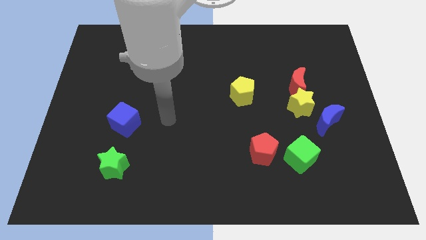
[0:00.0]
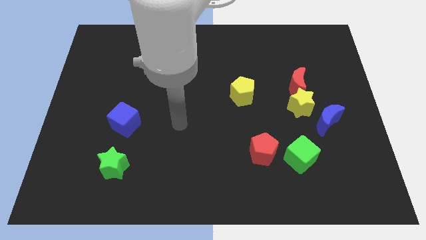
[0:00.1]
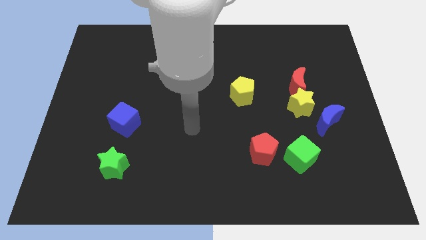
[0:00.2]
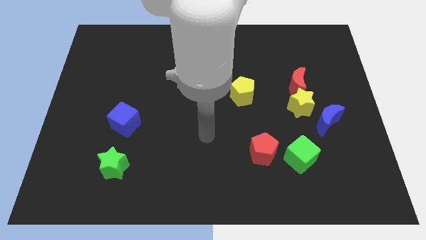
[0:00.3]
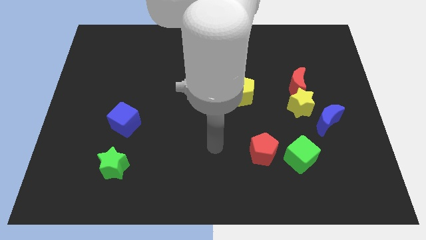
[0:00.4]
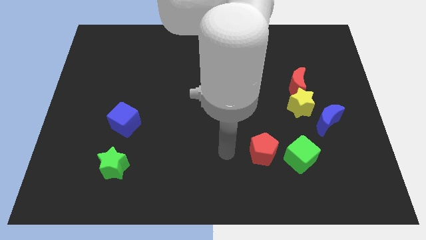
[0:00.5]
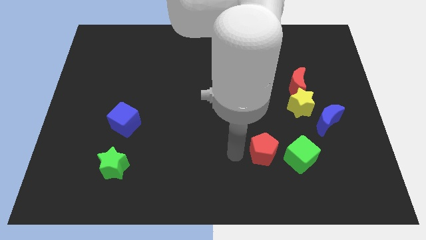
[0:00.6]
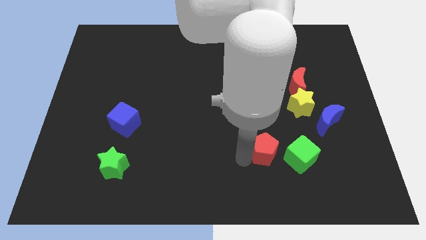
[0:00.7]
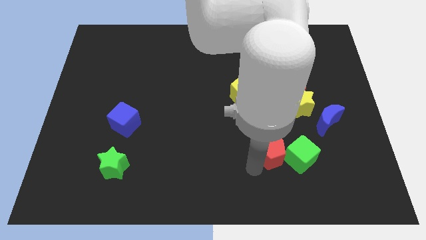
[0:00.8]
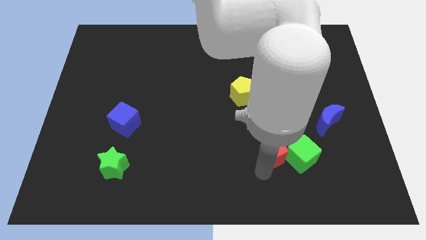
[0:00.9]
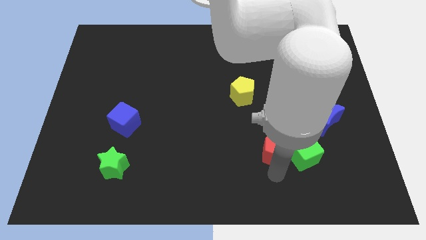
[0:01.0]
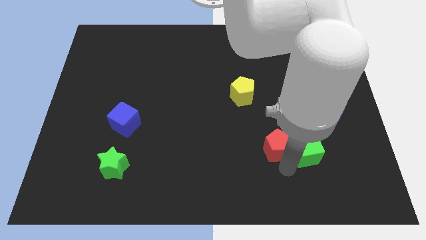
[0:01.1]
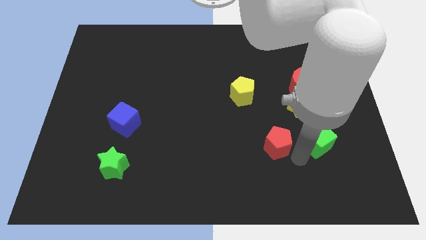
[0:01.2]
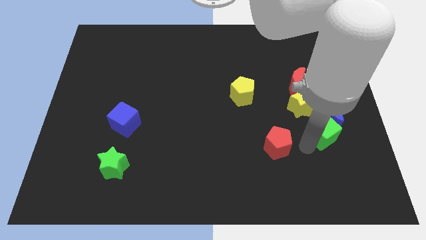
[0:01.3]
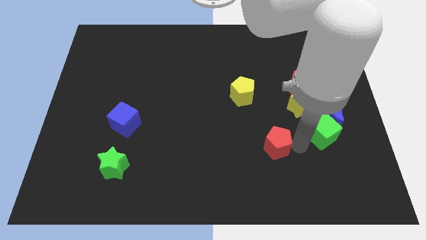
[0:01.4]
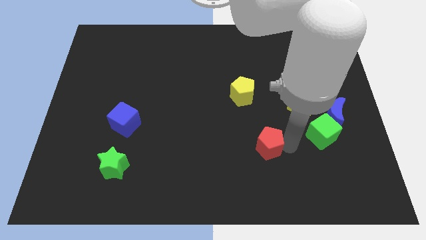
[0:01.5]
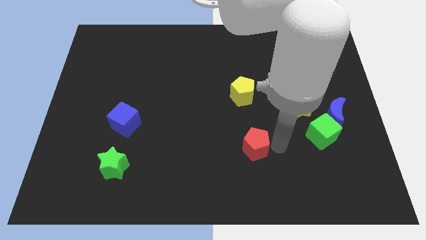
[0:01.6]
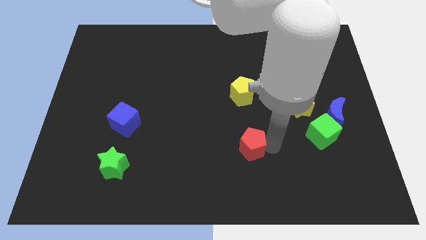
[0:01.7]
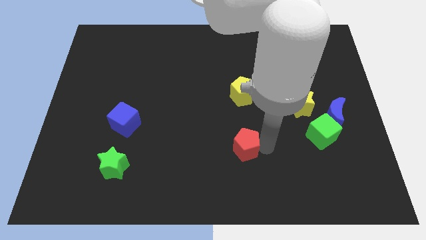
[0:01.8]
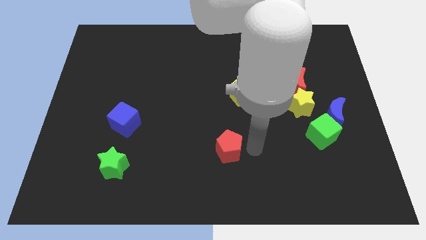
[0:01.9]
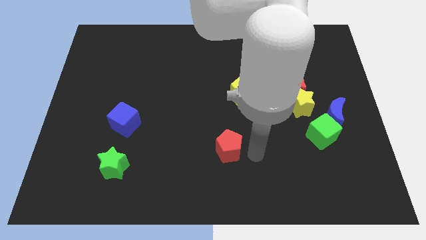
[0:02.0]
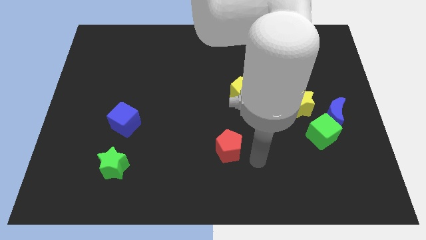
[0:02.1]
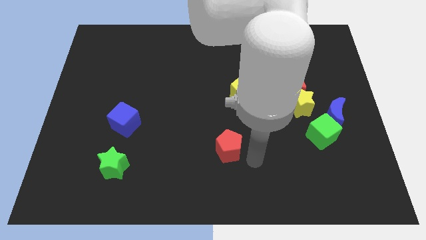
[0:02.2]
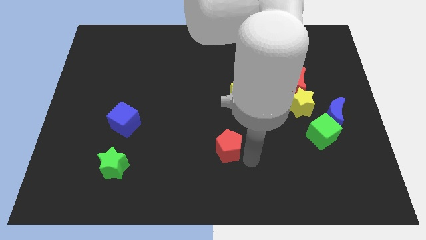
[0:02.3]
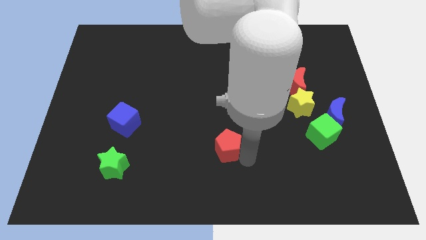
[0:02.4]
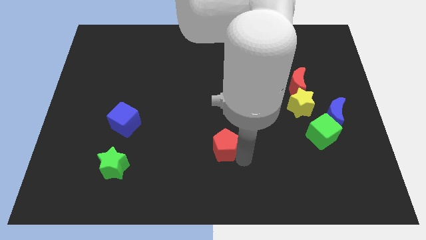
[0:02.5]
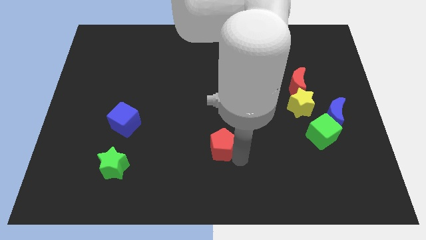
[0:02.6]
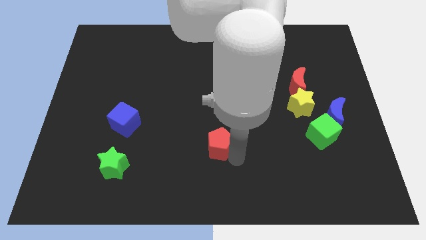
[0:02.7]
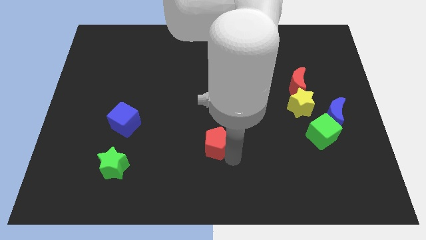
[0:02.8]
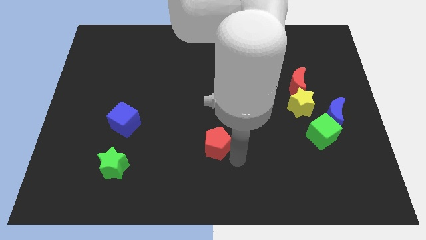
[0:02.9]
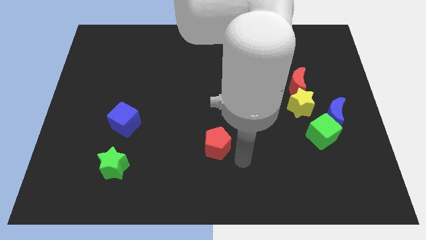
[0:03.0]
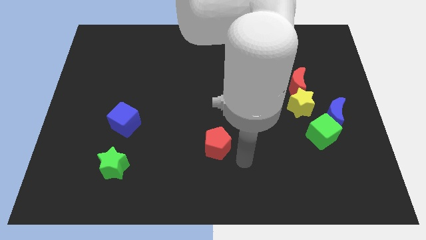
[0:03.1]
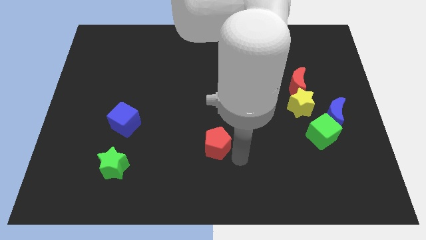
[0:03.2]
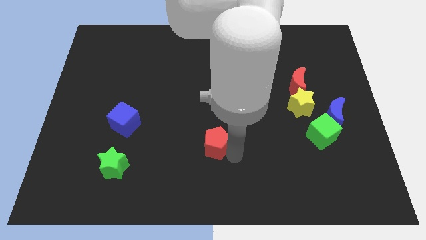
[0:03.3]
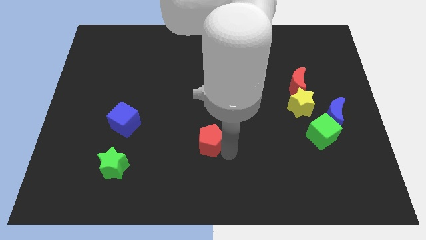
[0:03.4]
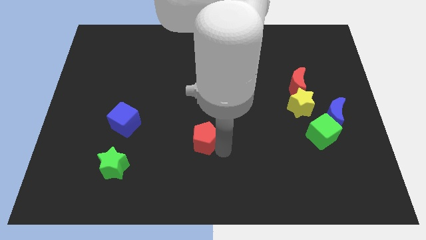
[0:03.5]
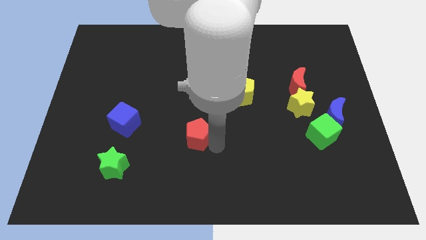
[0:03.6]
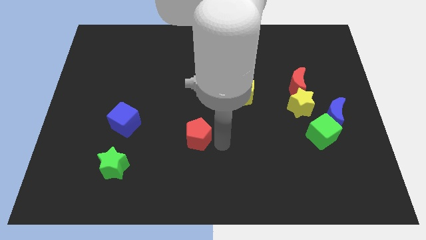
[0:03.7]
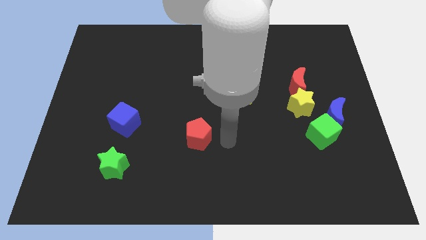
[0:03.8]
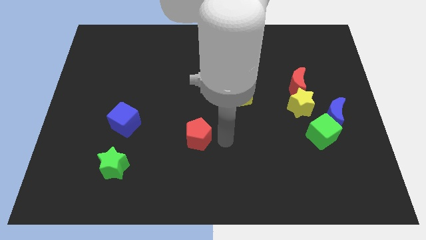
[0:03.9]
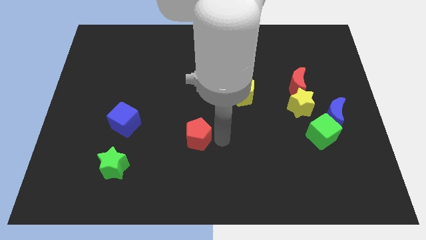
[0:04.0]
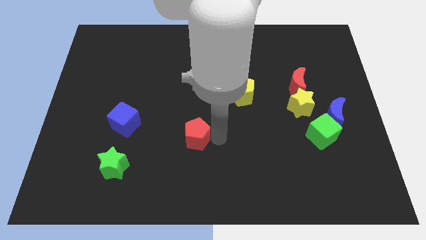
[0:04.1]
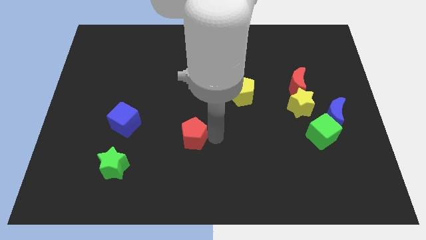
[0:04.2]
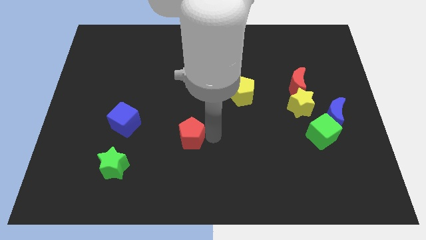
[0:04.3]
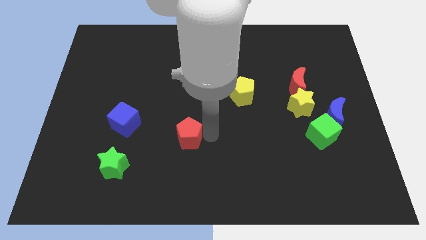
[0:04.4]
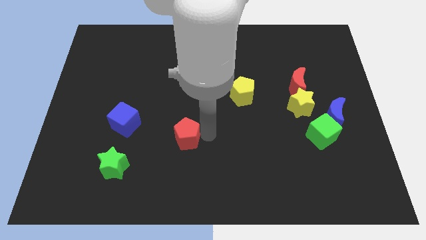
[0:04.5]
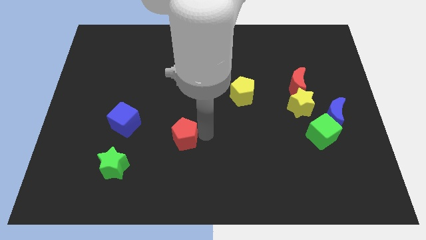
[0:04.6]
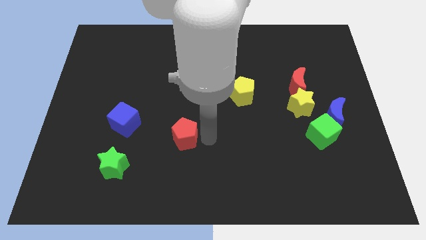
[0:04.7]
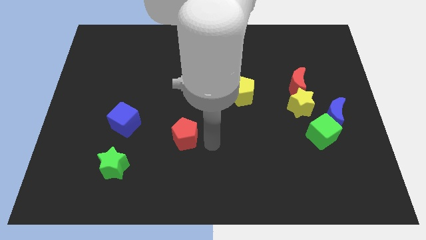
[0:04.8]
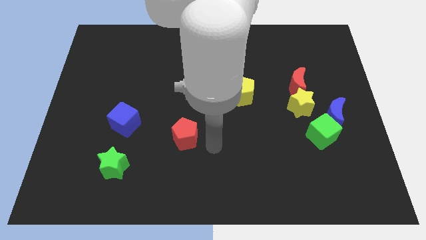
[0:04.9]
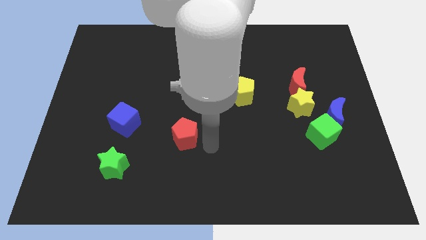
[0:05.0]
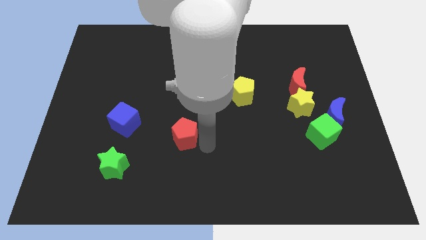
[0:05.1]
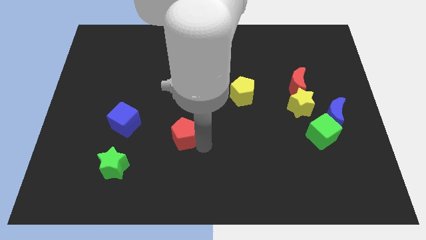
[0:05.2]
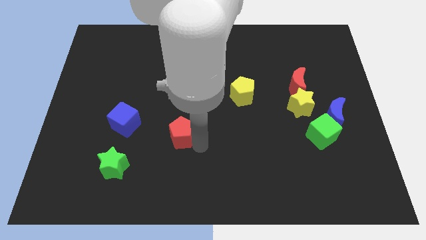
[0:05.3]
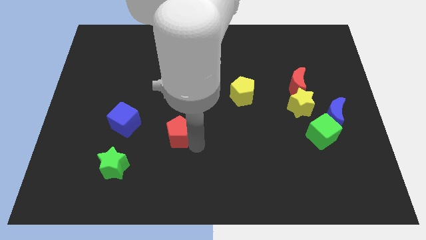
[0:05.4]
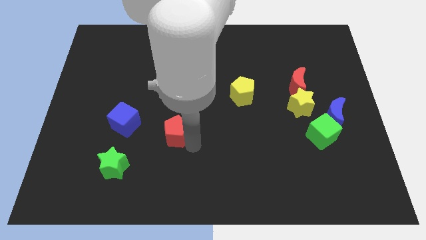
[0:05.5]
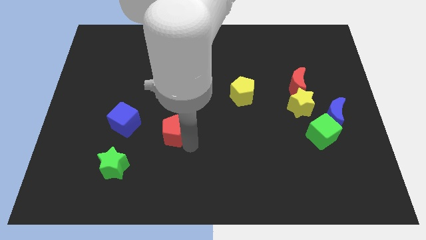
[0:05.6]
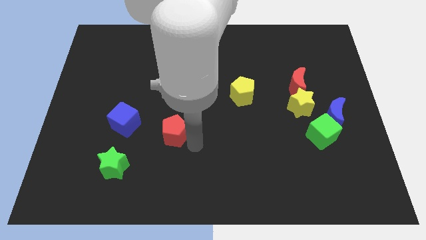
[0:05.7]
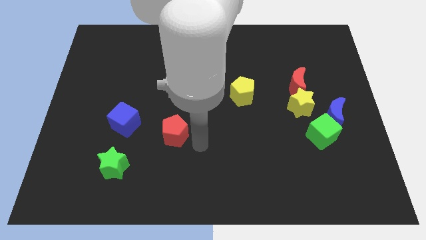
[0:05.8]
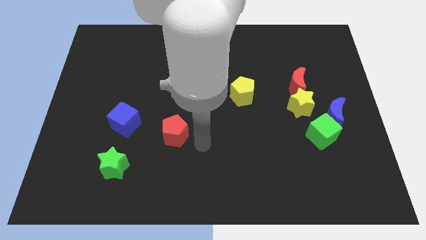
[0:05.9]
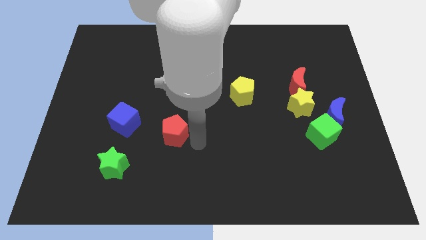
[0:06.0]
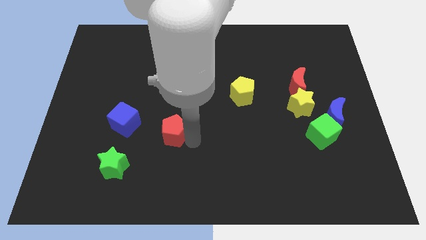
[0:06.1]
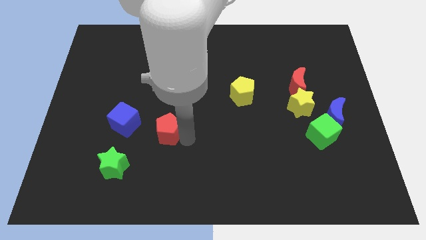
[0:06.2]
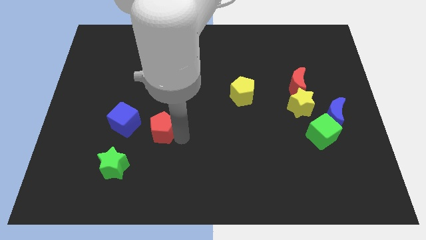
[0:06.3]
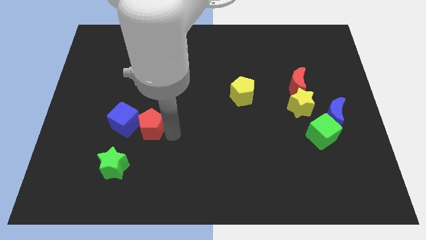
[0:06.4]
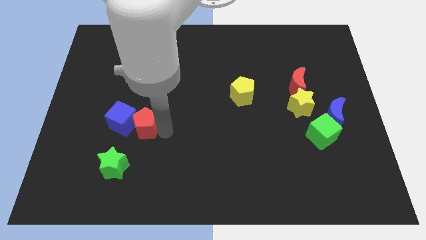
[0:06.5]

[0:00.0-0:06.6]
slide the red pentagon next to the blue cube

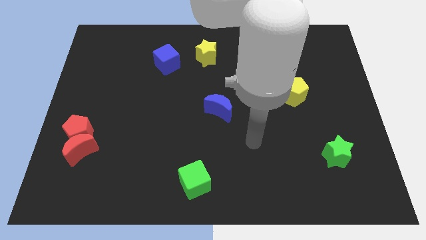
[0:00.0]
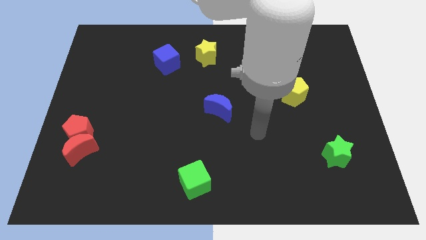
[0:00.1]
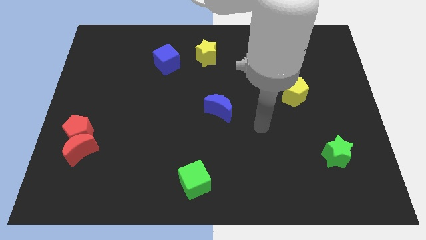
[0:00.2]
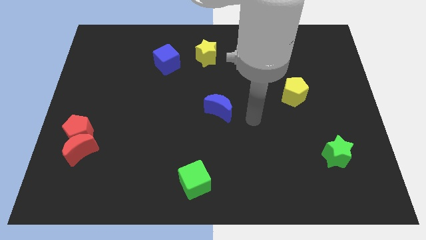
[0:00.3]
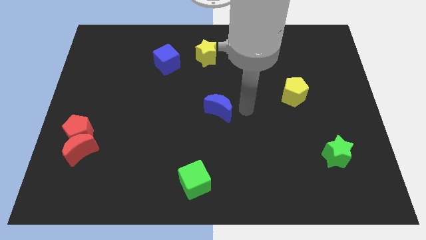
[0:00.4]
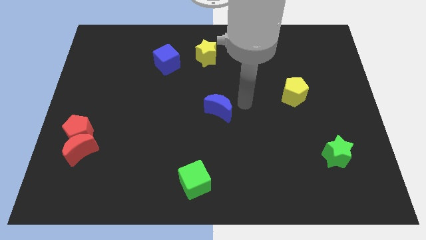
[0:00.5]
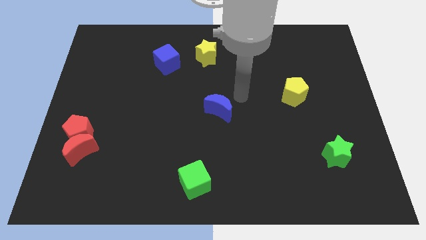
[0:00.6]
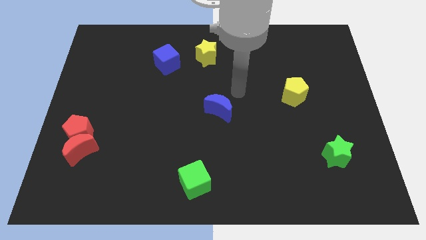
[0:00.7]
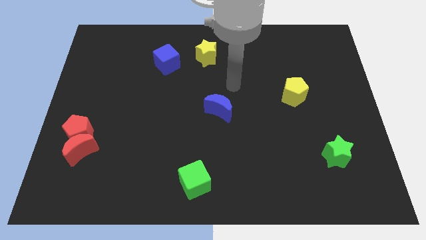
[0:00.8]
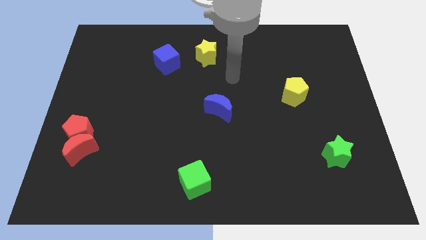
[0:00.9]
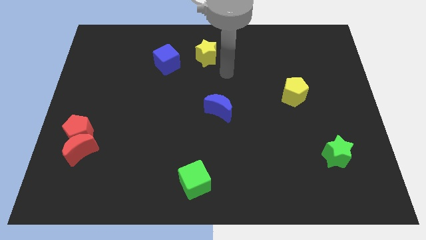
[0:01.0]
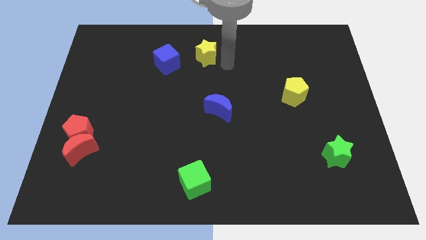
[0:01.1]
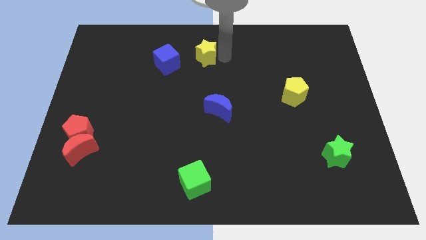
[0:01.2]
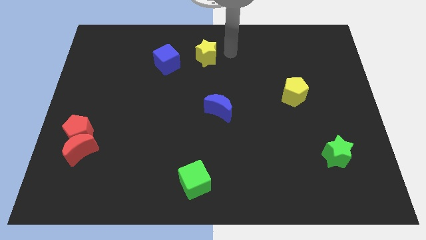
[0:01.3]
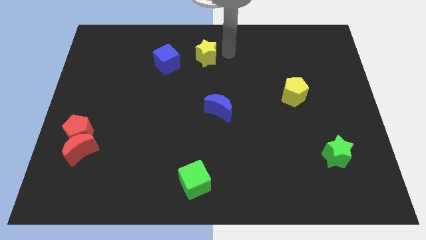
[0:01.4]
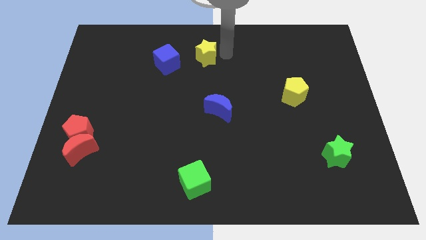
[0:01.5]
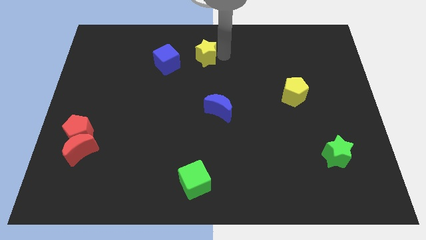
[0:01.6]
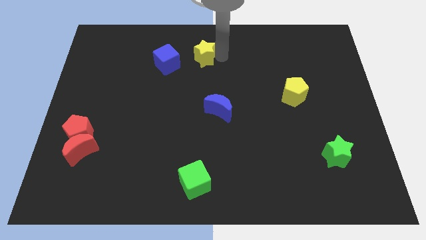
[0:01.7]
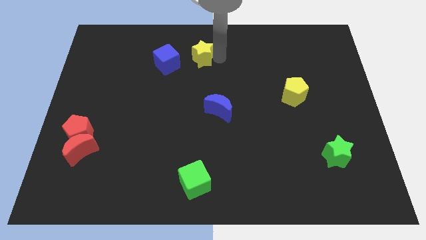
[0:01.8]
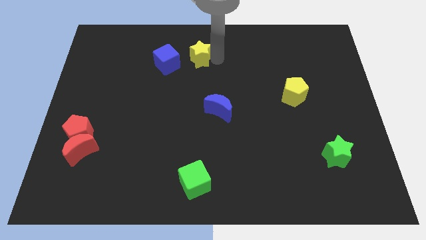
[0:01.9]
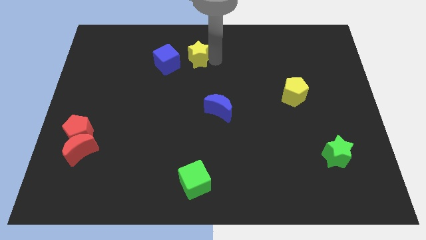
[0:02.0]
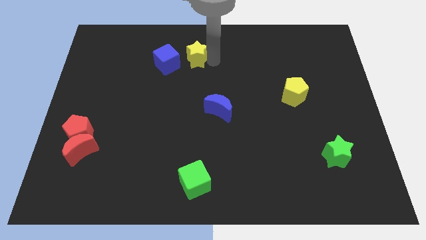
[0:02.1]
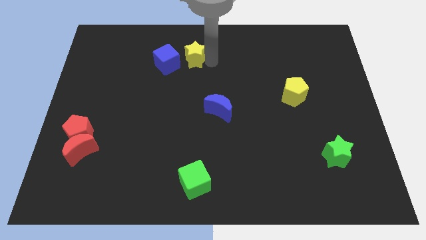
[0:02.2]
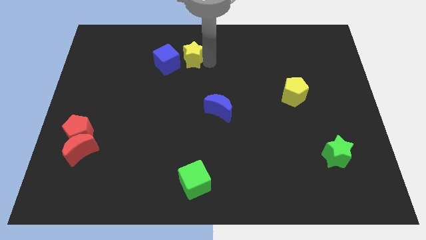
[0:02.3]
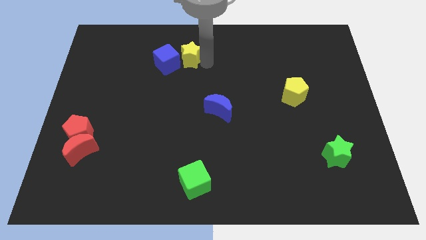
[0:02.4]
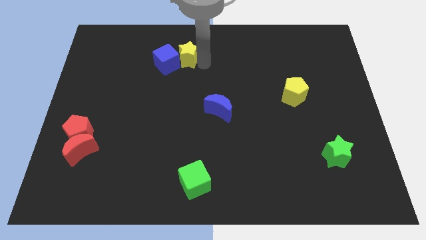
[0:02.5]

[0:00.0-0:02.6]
push the yellow star next to the blue cube
